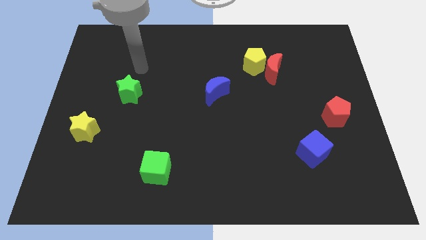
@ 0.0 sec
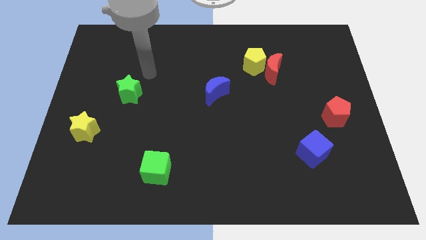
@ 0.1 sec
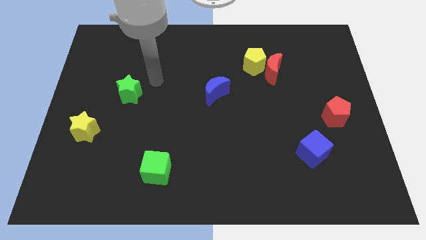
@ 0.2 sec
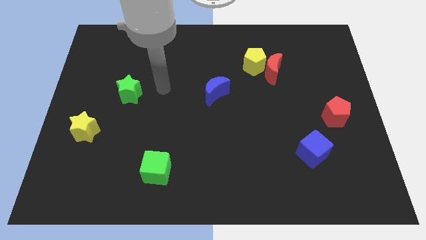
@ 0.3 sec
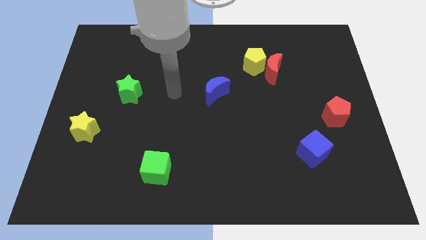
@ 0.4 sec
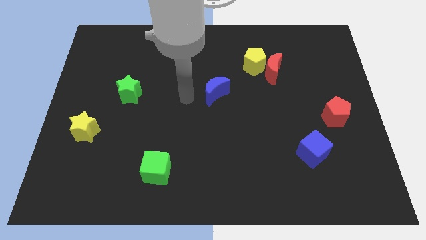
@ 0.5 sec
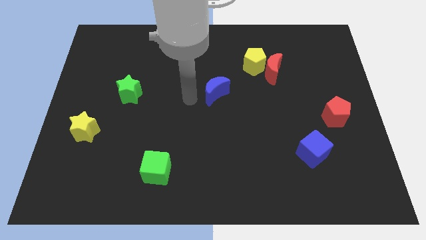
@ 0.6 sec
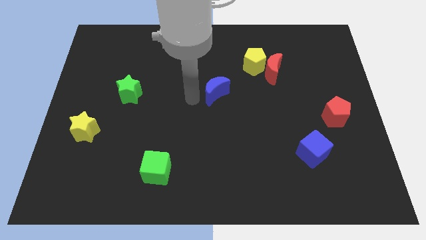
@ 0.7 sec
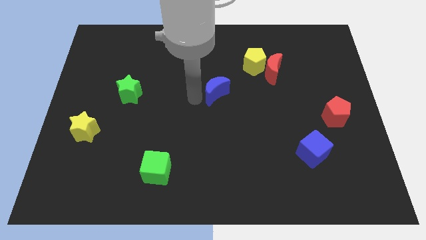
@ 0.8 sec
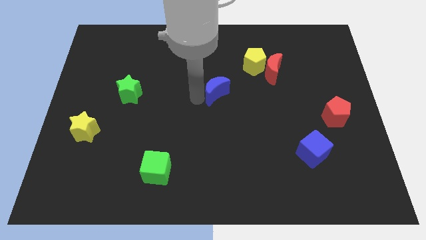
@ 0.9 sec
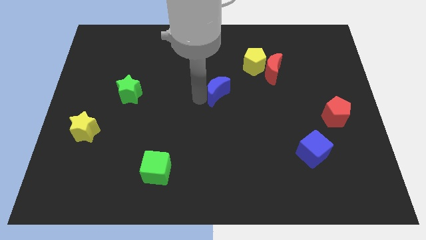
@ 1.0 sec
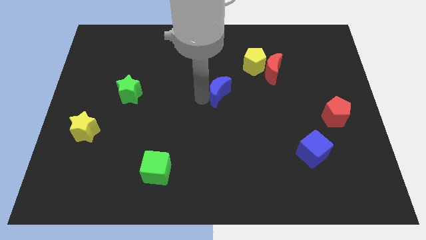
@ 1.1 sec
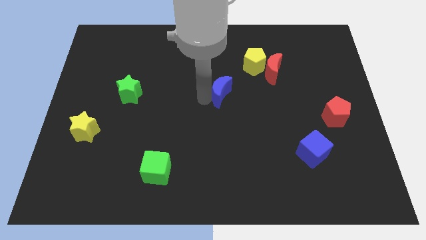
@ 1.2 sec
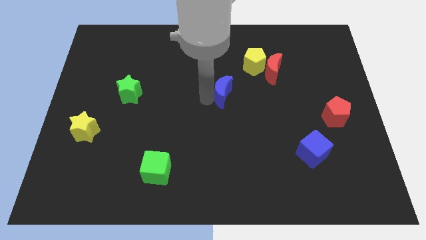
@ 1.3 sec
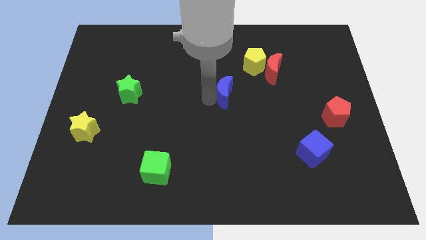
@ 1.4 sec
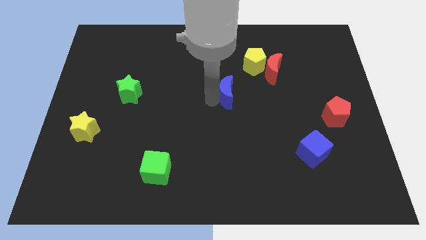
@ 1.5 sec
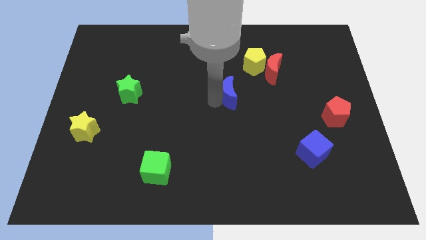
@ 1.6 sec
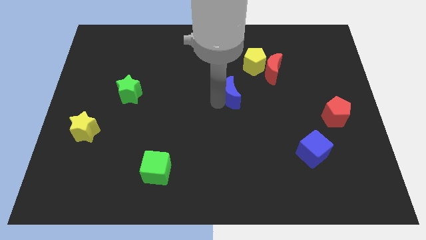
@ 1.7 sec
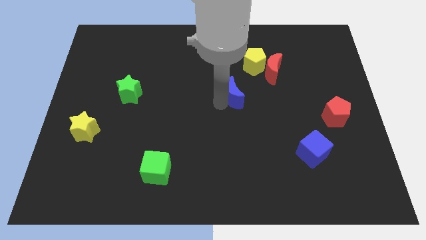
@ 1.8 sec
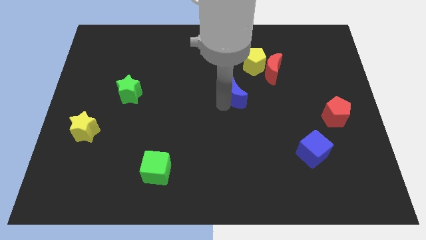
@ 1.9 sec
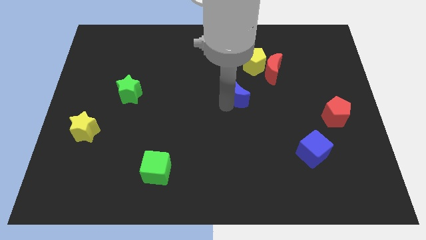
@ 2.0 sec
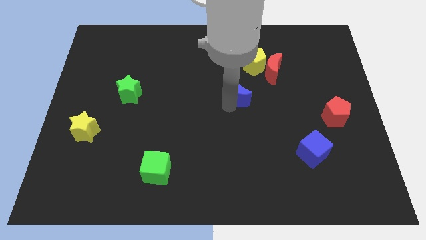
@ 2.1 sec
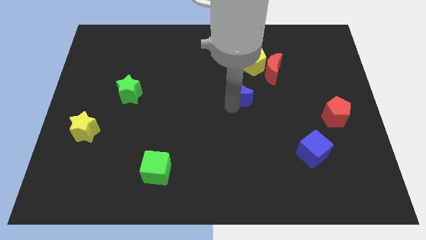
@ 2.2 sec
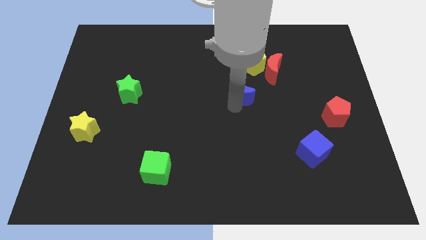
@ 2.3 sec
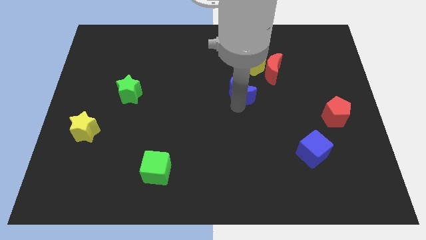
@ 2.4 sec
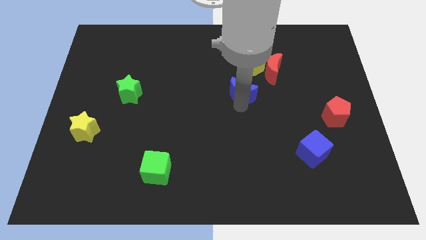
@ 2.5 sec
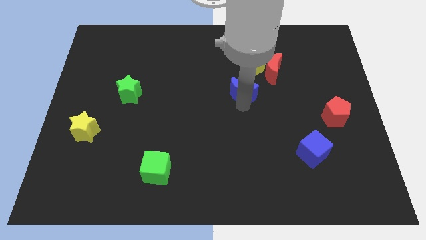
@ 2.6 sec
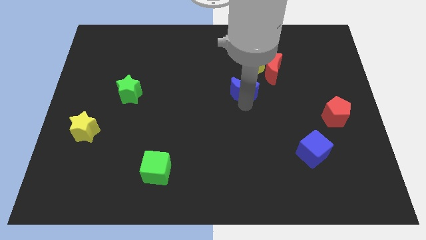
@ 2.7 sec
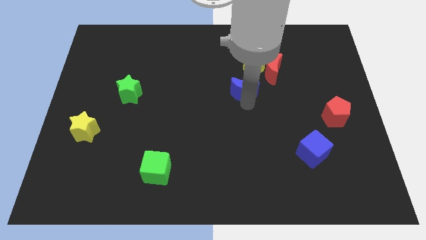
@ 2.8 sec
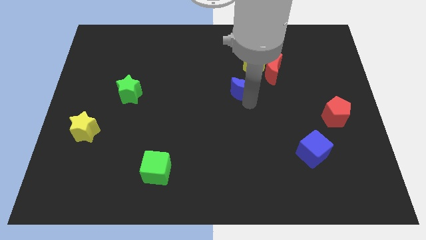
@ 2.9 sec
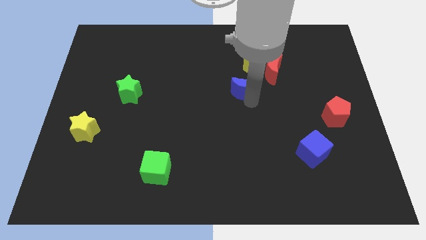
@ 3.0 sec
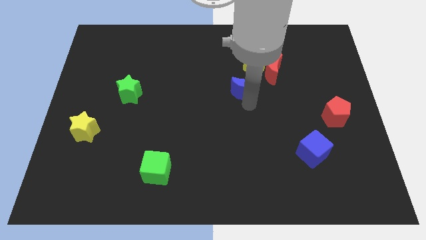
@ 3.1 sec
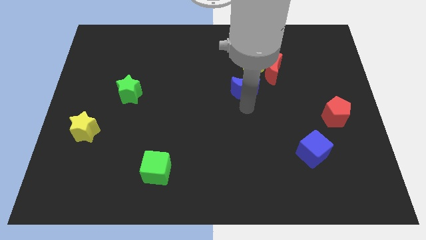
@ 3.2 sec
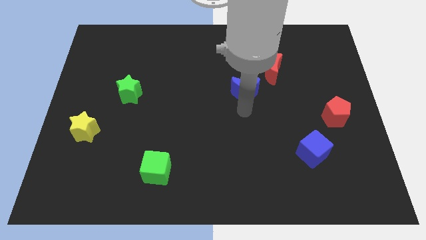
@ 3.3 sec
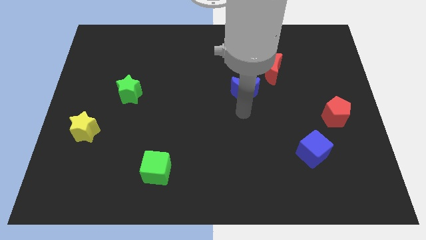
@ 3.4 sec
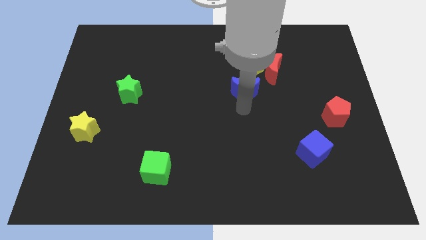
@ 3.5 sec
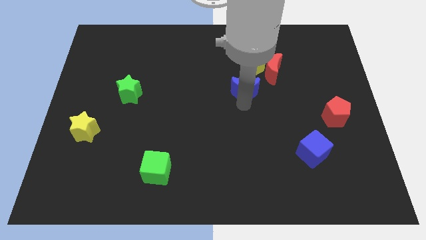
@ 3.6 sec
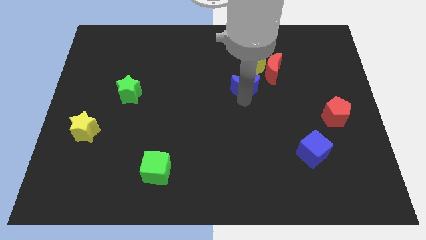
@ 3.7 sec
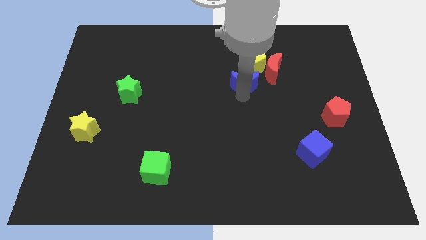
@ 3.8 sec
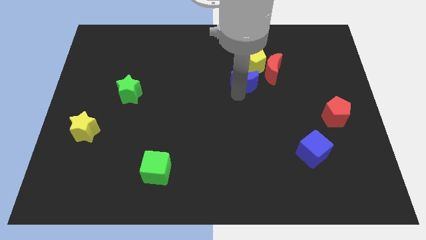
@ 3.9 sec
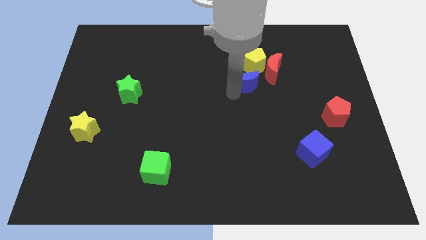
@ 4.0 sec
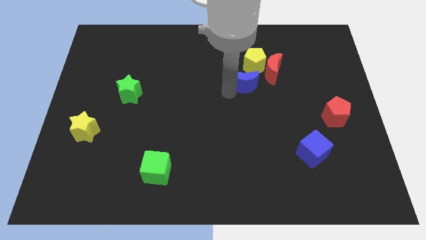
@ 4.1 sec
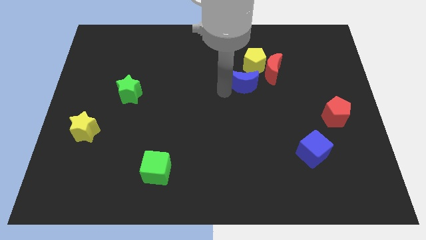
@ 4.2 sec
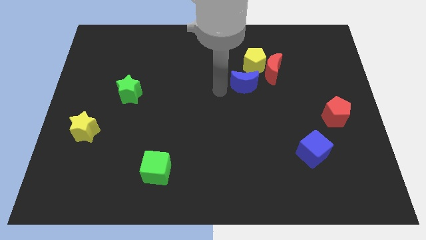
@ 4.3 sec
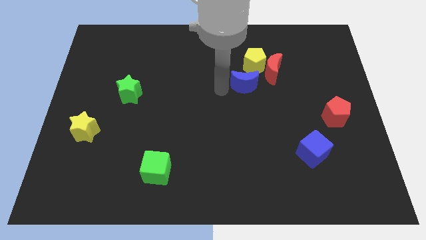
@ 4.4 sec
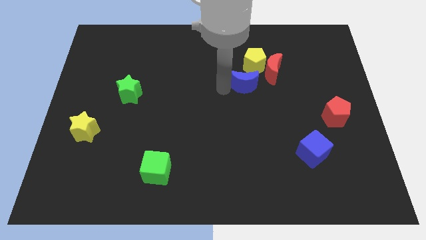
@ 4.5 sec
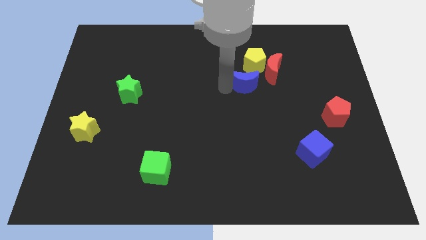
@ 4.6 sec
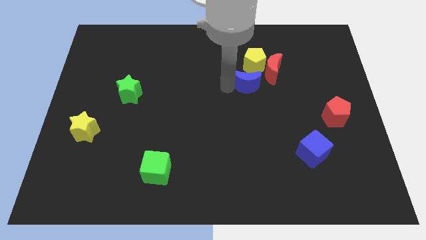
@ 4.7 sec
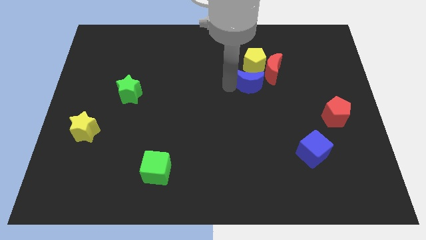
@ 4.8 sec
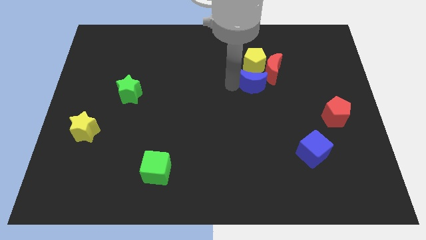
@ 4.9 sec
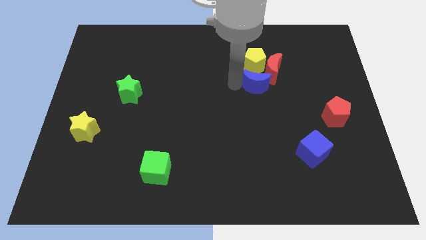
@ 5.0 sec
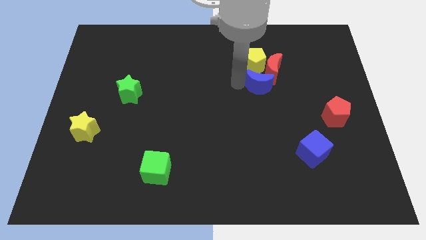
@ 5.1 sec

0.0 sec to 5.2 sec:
move the blue moon next to the red moon

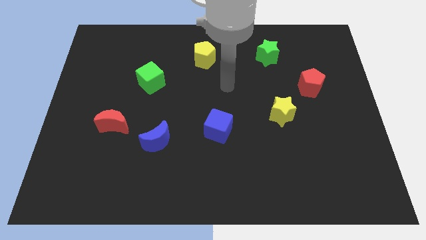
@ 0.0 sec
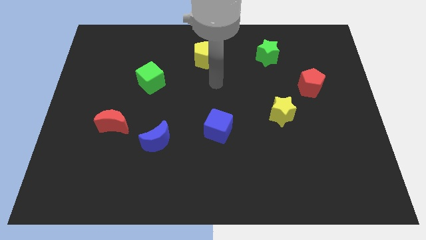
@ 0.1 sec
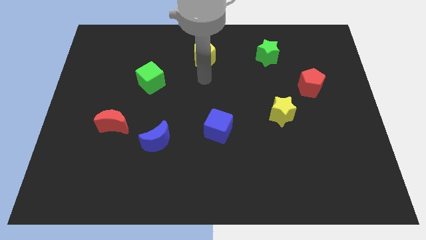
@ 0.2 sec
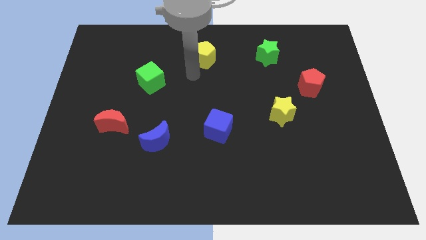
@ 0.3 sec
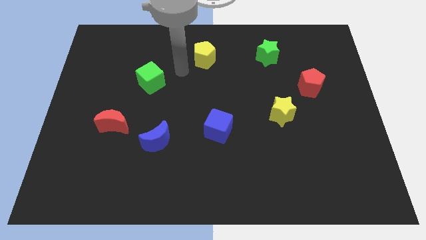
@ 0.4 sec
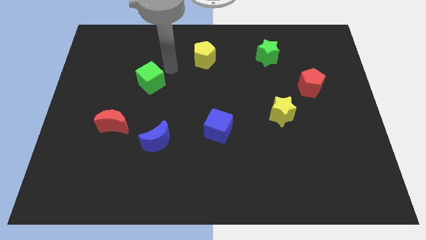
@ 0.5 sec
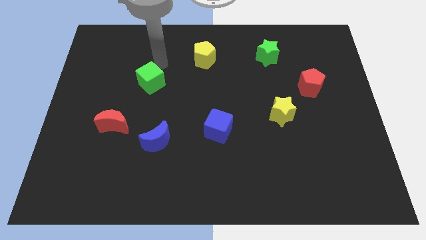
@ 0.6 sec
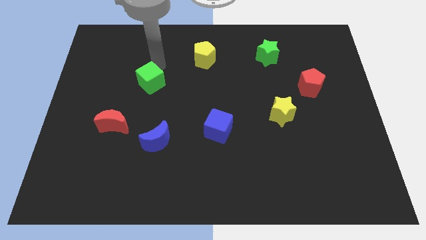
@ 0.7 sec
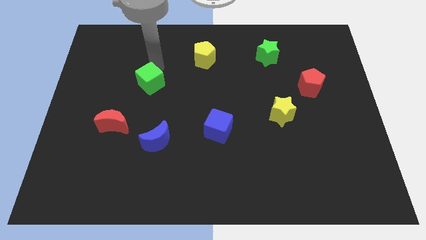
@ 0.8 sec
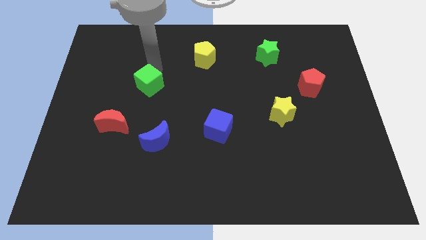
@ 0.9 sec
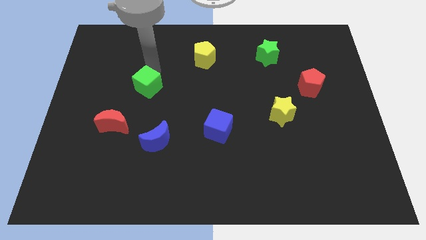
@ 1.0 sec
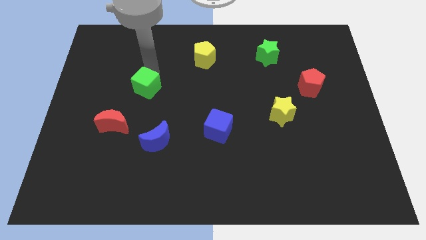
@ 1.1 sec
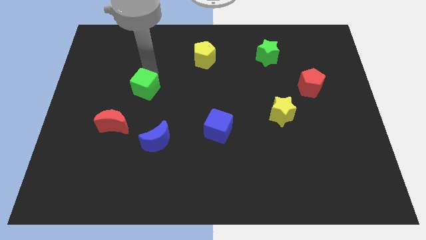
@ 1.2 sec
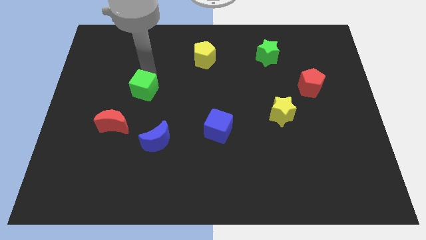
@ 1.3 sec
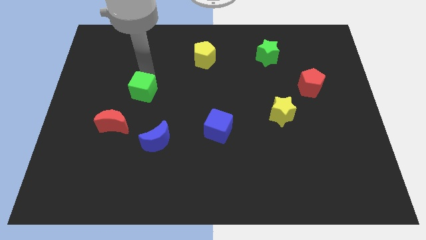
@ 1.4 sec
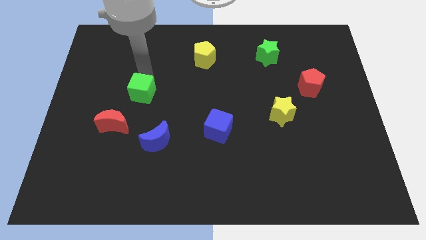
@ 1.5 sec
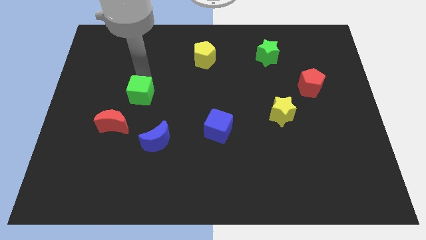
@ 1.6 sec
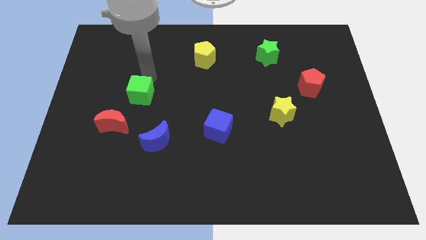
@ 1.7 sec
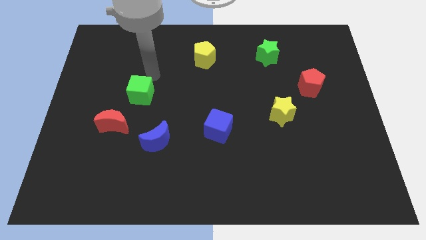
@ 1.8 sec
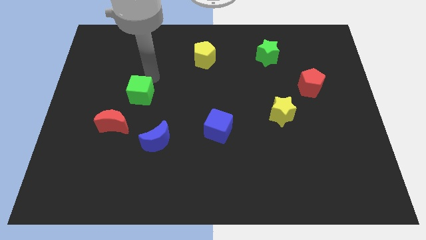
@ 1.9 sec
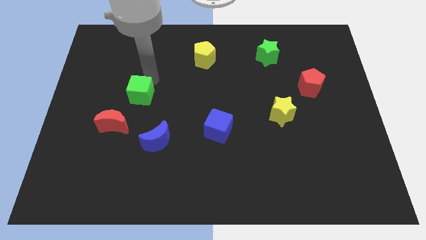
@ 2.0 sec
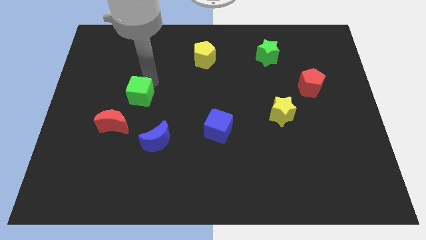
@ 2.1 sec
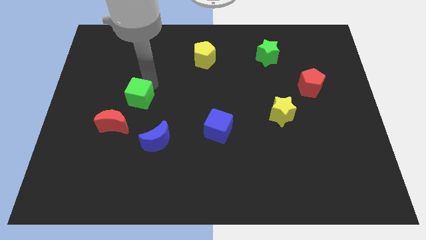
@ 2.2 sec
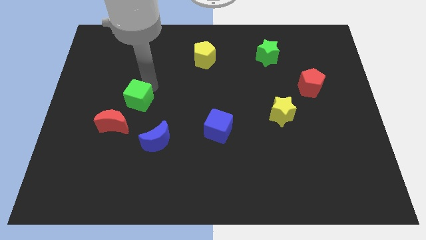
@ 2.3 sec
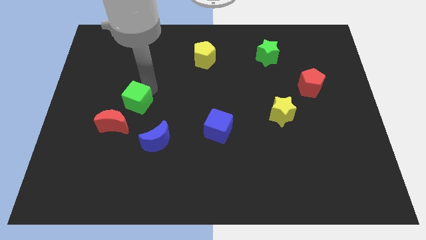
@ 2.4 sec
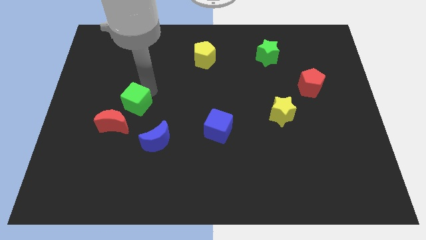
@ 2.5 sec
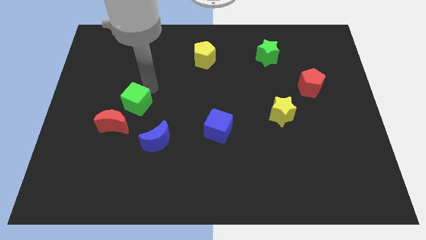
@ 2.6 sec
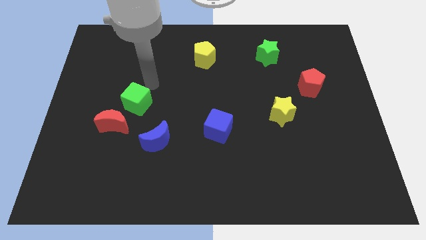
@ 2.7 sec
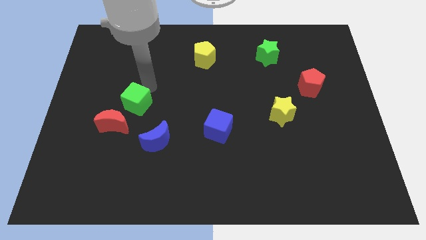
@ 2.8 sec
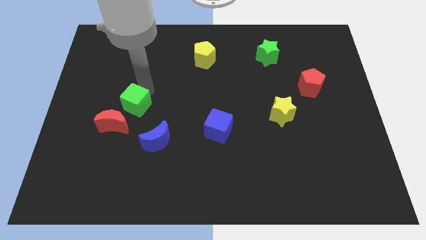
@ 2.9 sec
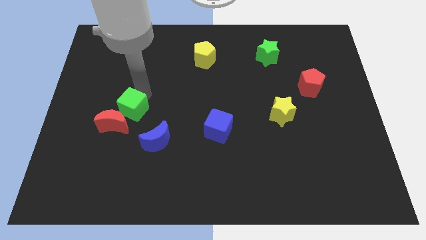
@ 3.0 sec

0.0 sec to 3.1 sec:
move the green cube towards the red moon
